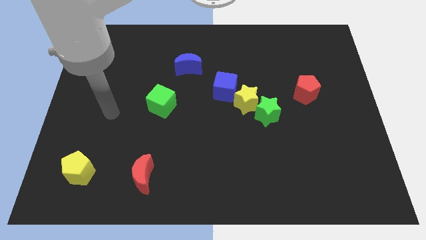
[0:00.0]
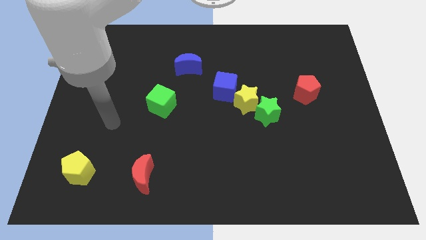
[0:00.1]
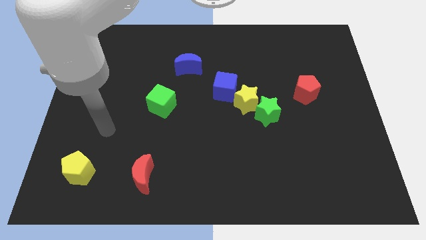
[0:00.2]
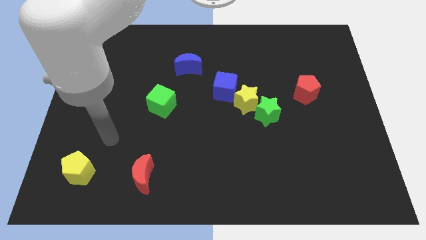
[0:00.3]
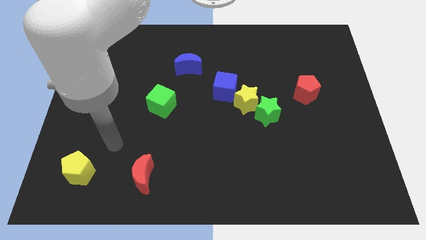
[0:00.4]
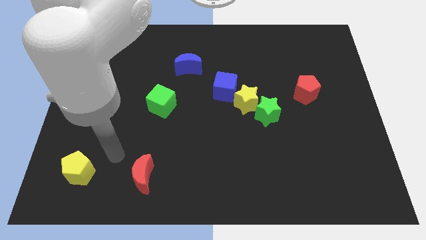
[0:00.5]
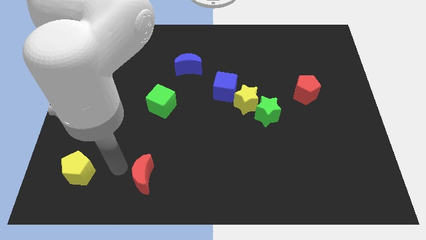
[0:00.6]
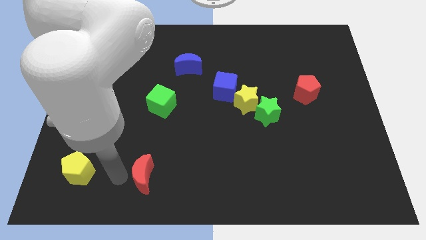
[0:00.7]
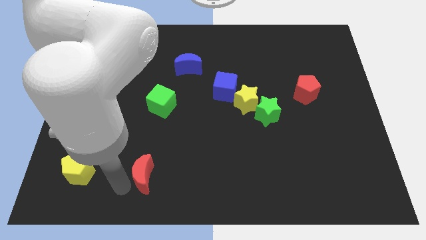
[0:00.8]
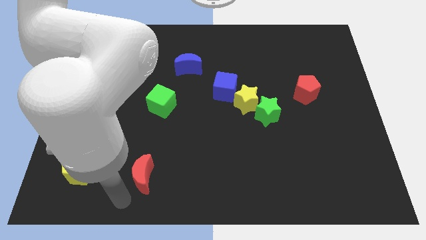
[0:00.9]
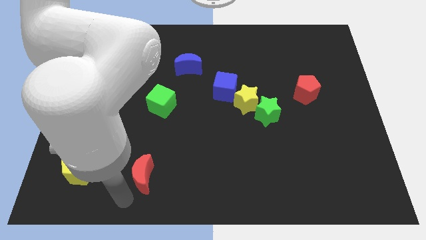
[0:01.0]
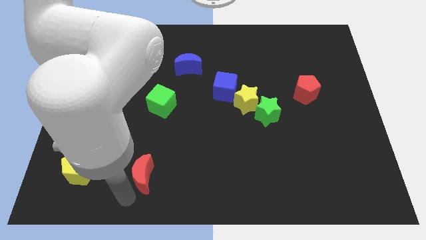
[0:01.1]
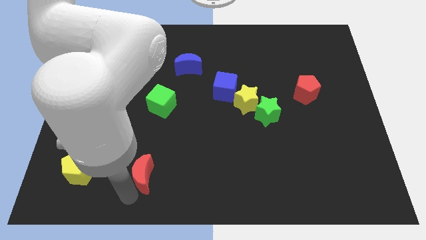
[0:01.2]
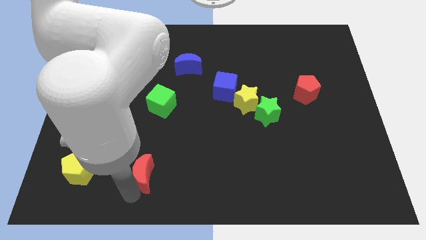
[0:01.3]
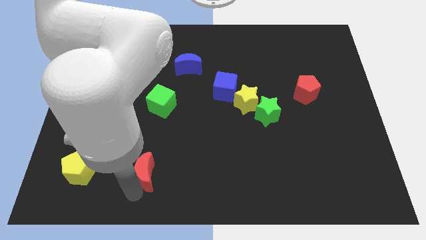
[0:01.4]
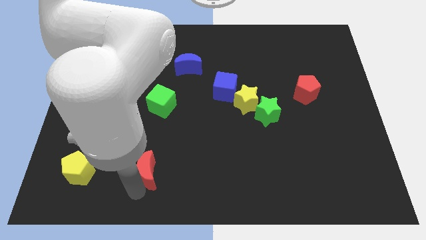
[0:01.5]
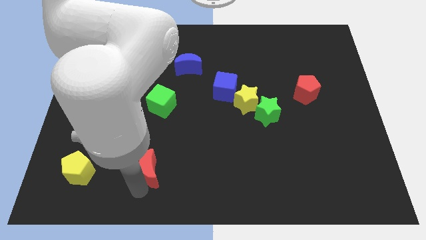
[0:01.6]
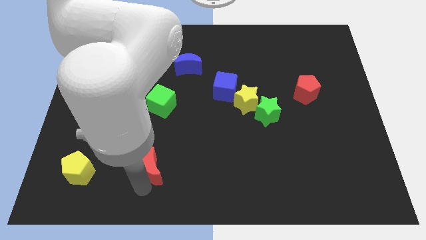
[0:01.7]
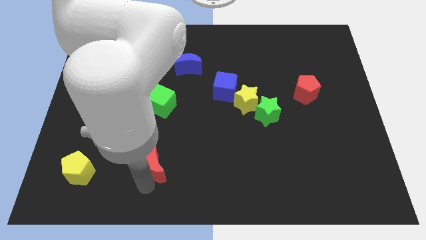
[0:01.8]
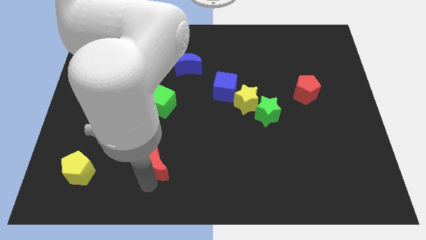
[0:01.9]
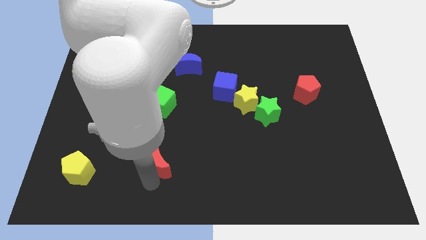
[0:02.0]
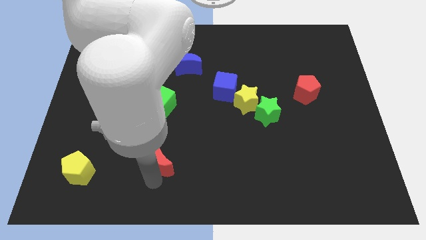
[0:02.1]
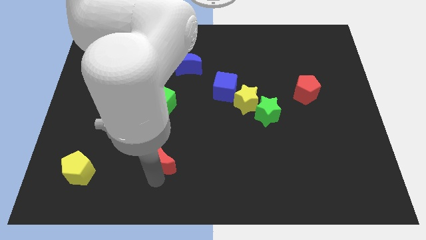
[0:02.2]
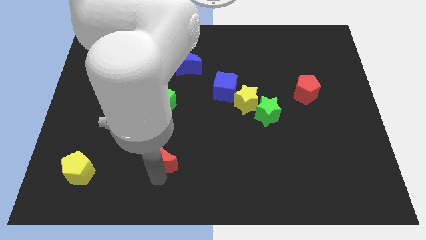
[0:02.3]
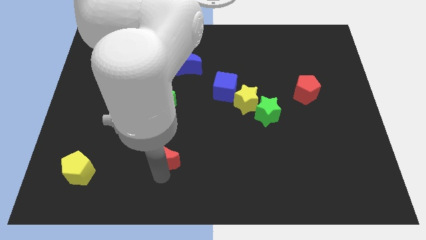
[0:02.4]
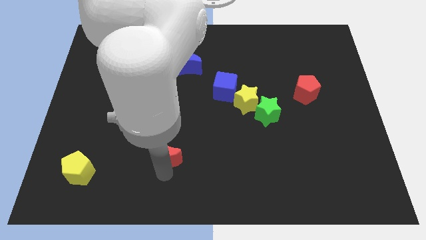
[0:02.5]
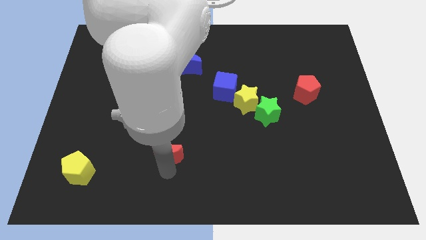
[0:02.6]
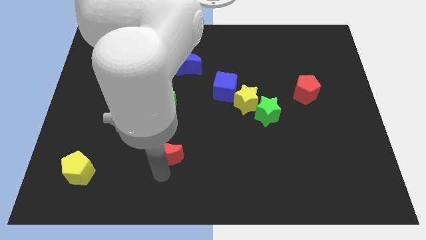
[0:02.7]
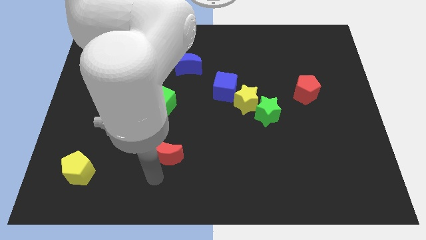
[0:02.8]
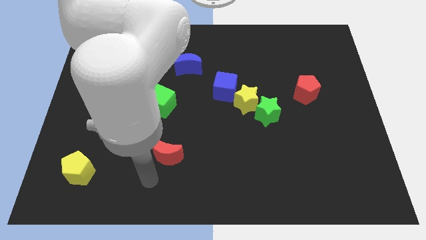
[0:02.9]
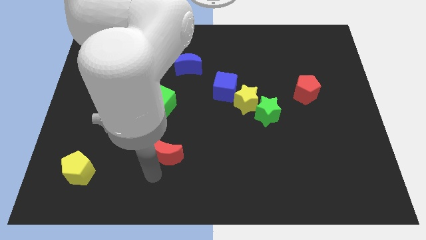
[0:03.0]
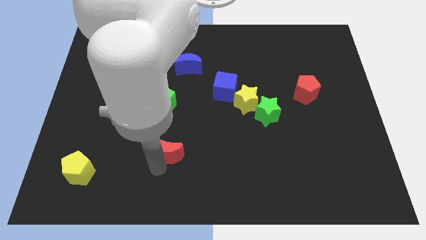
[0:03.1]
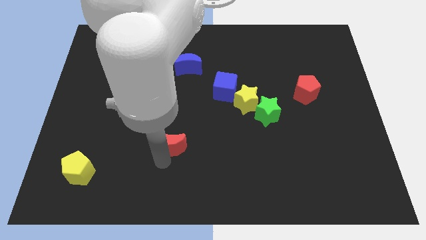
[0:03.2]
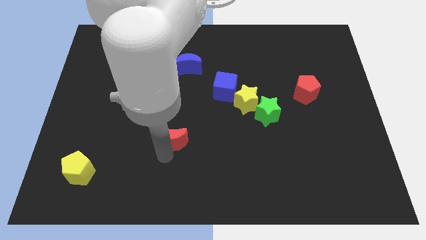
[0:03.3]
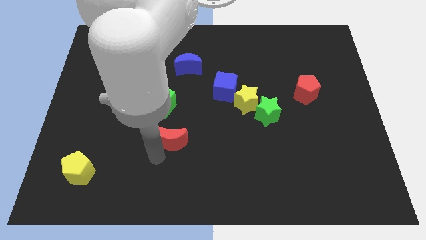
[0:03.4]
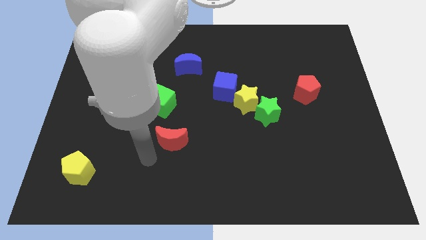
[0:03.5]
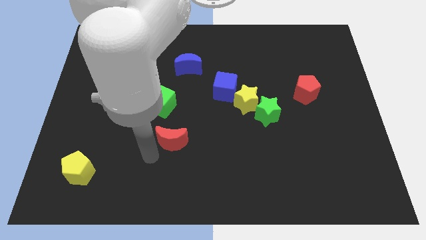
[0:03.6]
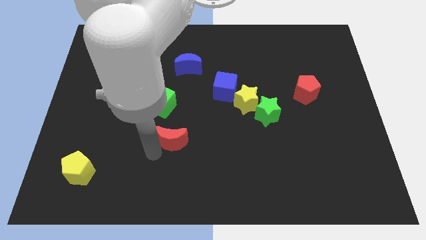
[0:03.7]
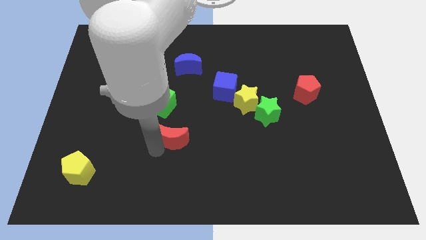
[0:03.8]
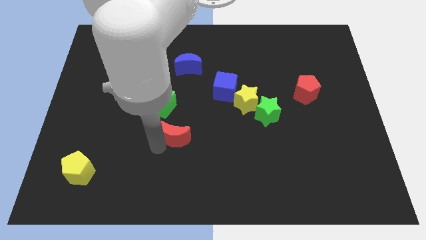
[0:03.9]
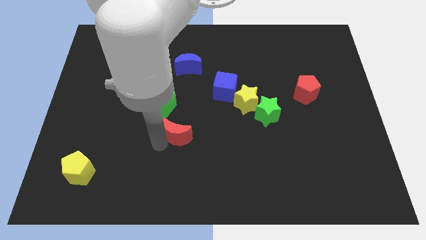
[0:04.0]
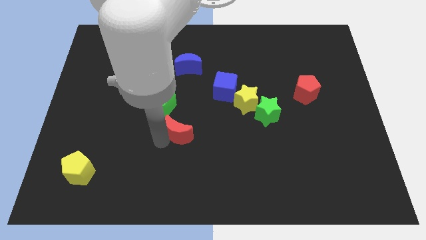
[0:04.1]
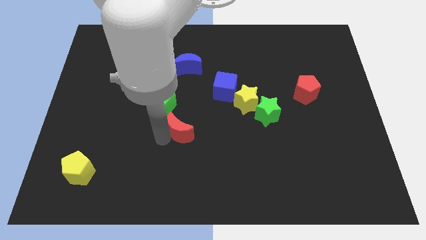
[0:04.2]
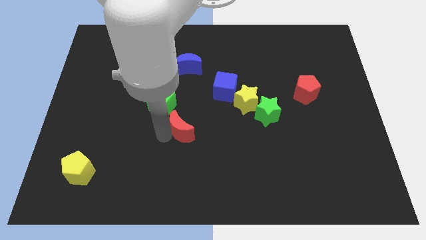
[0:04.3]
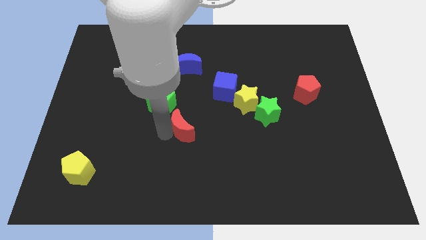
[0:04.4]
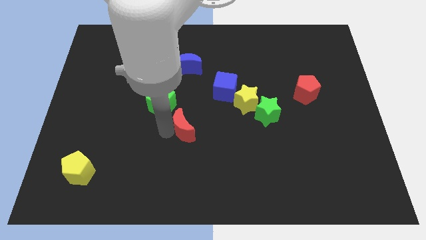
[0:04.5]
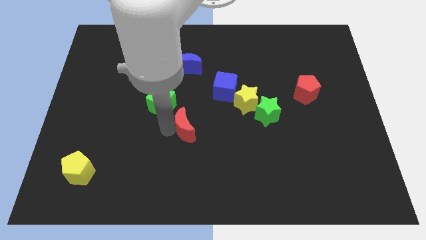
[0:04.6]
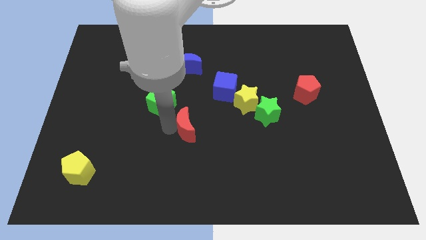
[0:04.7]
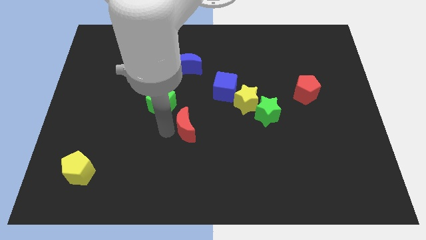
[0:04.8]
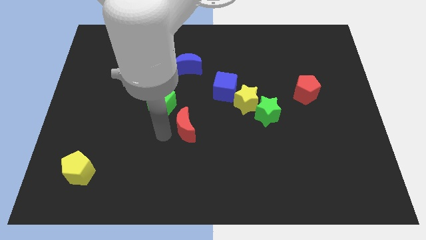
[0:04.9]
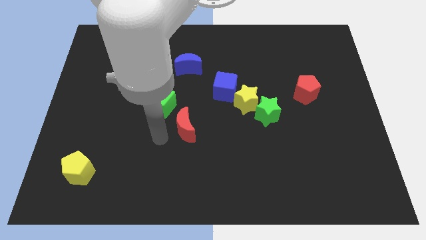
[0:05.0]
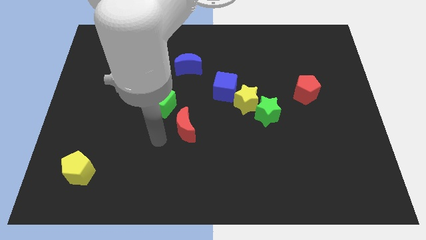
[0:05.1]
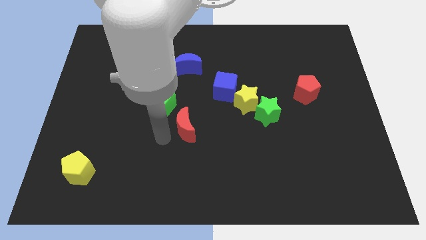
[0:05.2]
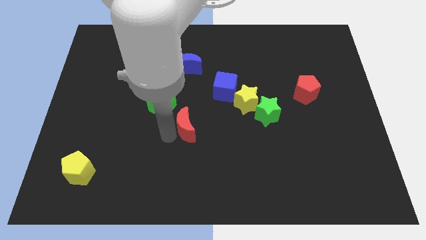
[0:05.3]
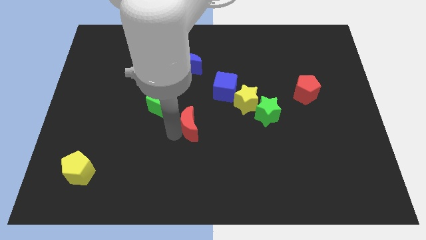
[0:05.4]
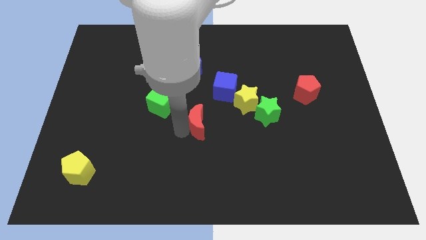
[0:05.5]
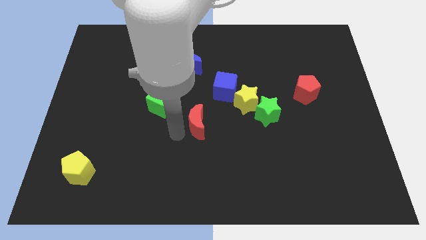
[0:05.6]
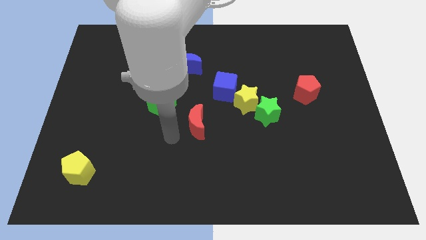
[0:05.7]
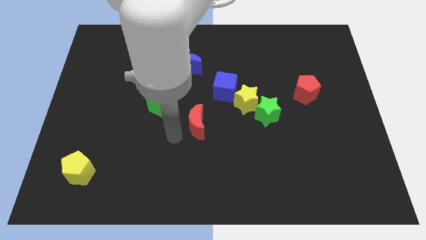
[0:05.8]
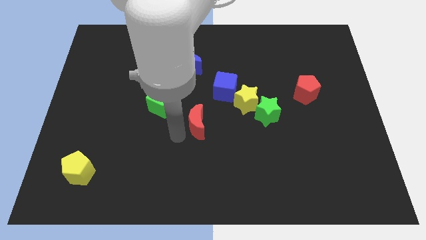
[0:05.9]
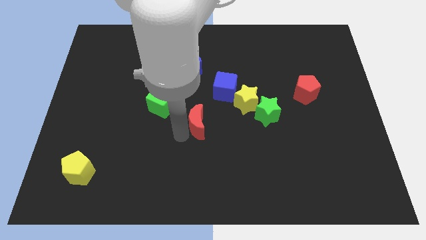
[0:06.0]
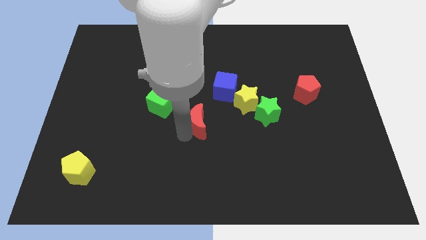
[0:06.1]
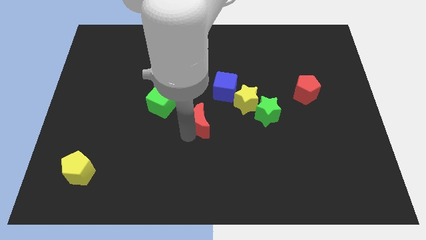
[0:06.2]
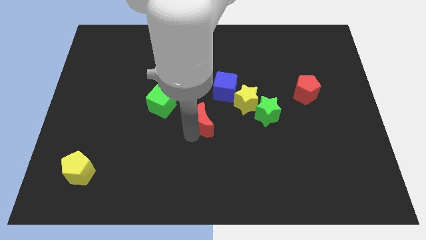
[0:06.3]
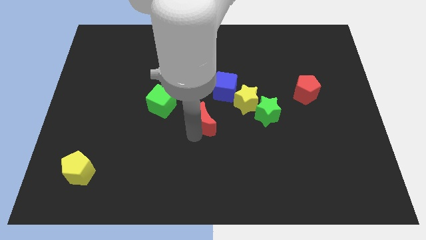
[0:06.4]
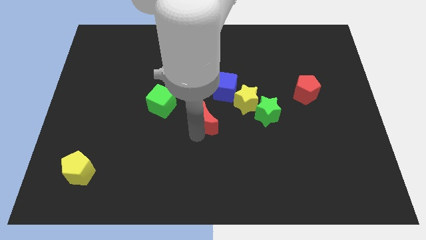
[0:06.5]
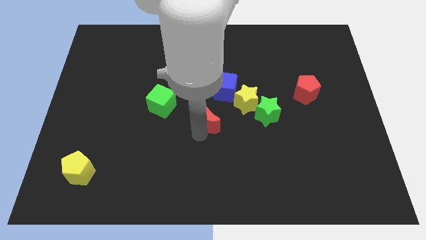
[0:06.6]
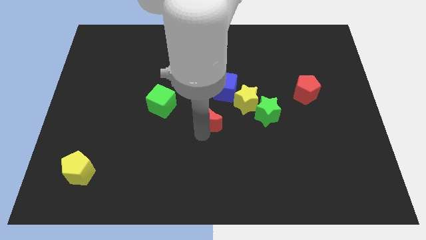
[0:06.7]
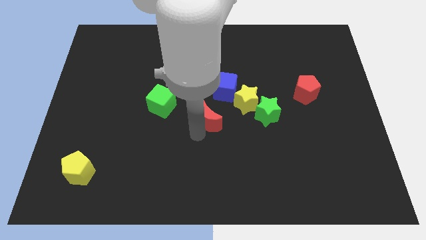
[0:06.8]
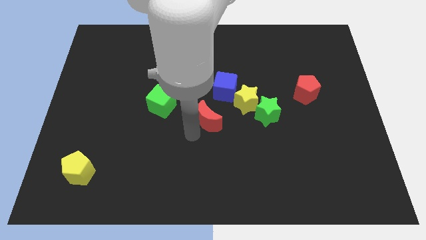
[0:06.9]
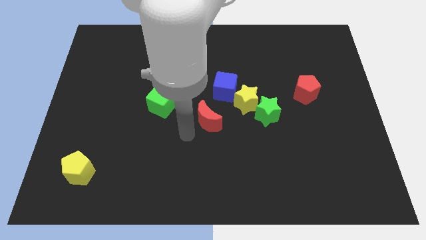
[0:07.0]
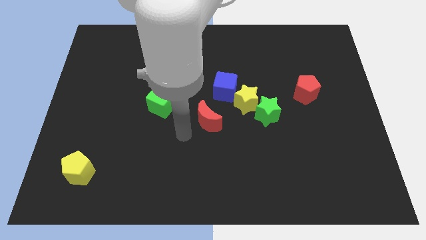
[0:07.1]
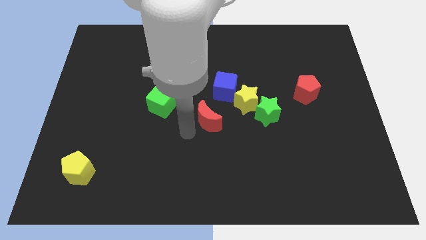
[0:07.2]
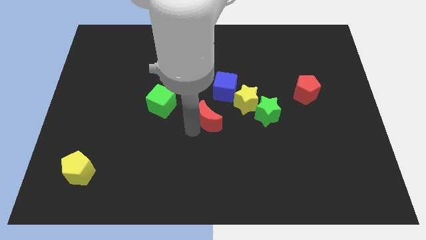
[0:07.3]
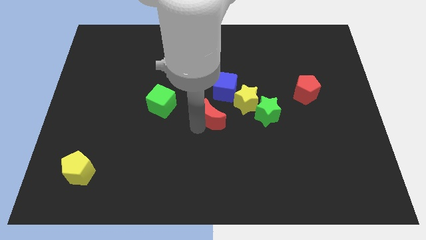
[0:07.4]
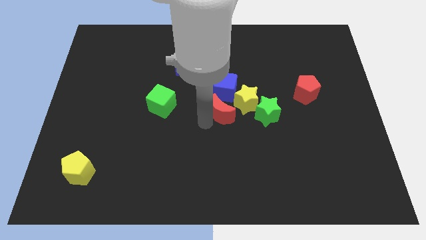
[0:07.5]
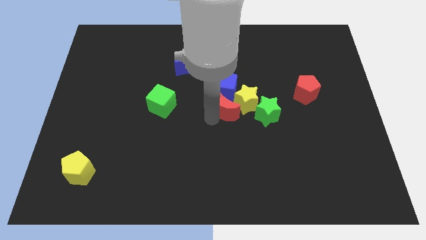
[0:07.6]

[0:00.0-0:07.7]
slide the red moon close to the yellow star

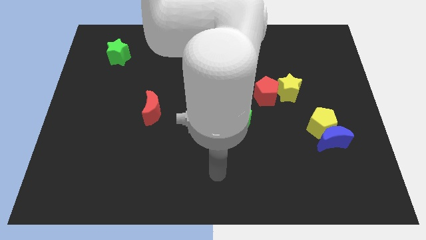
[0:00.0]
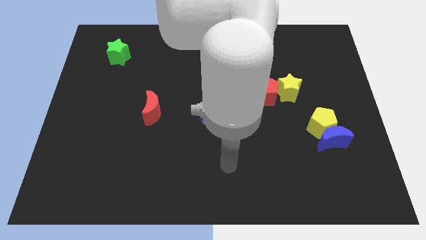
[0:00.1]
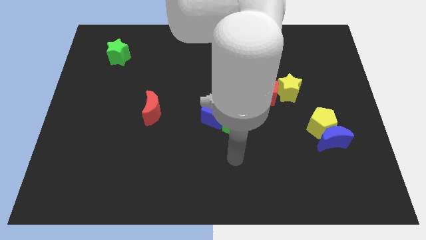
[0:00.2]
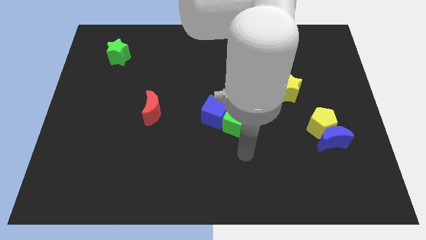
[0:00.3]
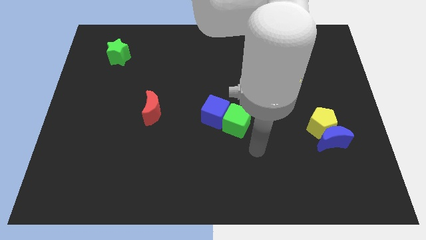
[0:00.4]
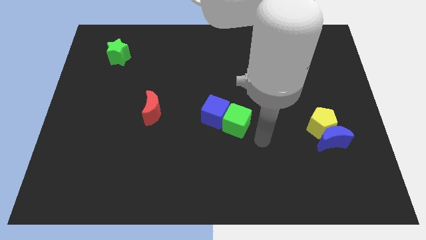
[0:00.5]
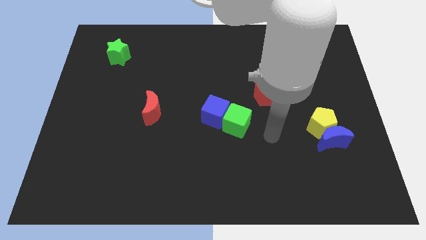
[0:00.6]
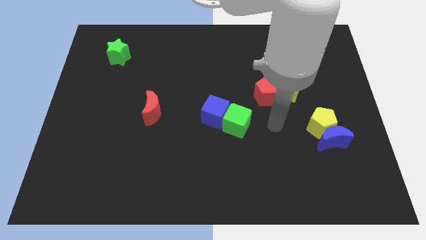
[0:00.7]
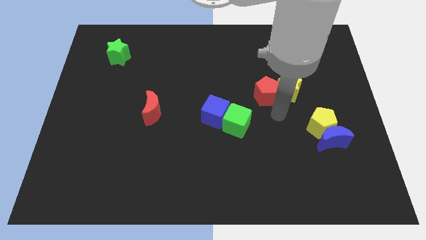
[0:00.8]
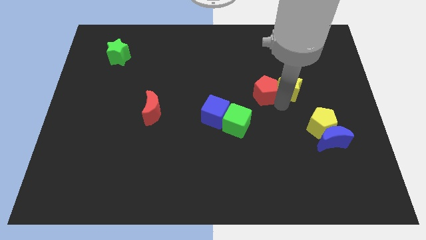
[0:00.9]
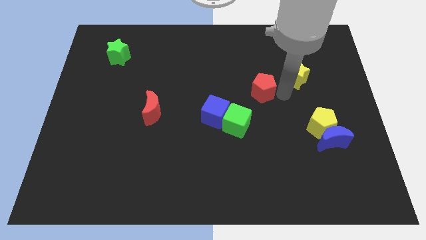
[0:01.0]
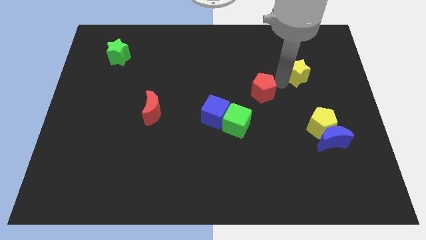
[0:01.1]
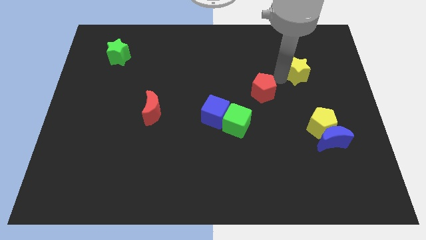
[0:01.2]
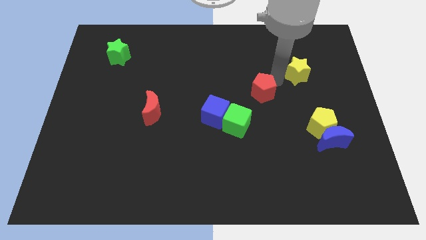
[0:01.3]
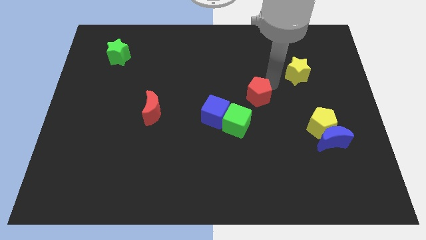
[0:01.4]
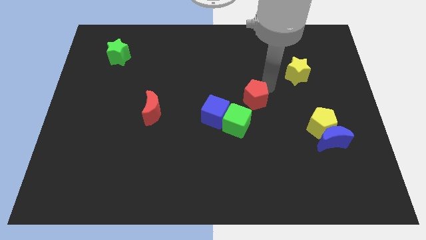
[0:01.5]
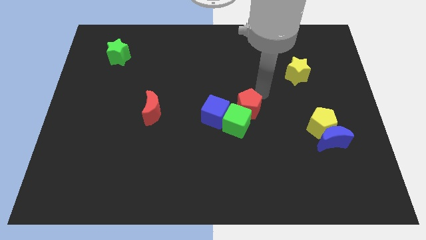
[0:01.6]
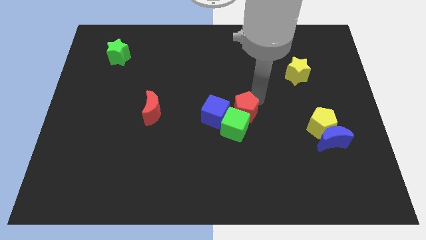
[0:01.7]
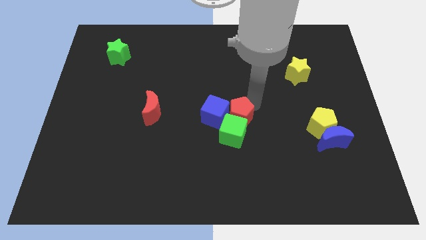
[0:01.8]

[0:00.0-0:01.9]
put the red pentagon next to the blue cube
